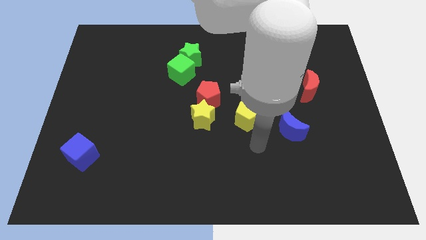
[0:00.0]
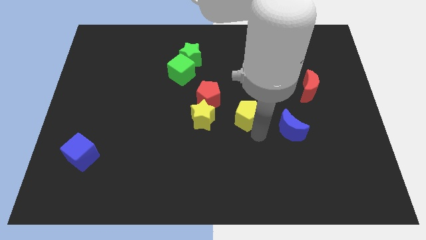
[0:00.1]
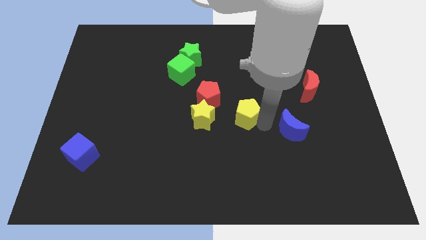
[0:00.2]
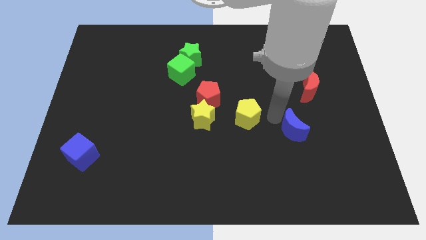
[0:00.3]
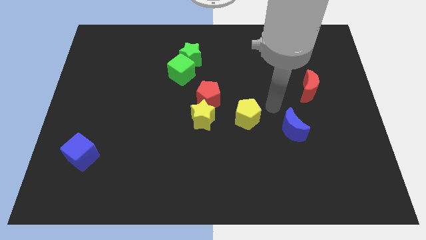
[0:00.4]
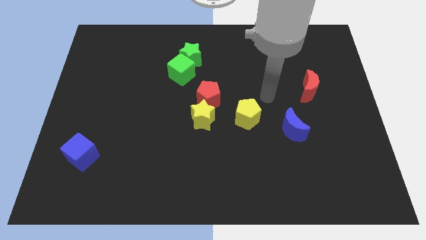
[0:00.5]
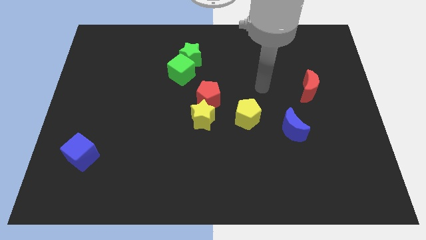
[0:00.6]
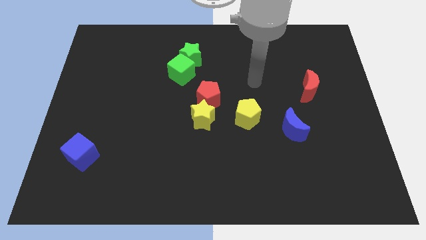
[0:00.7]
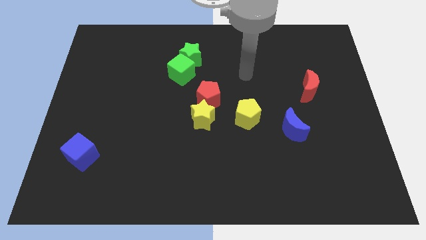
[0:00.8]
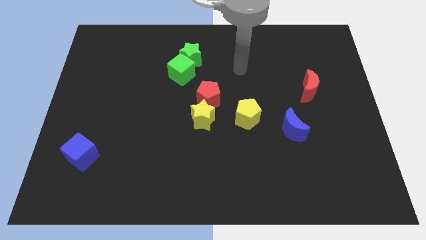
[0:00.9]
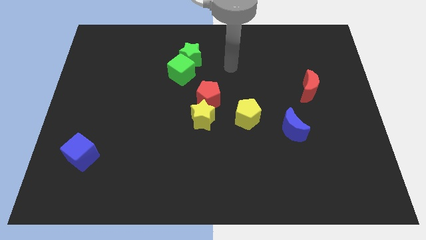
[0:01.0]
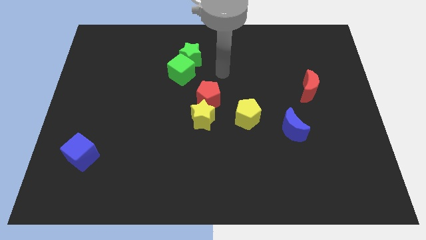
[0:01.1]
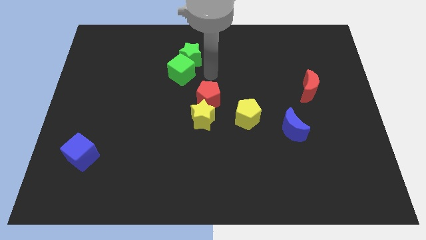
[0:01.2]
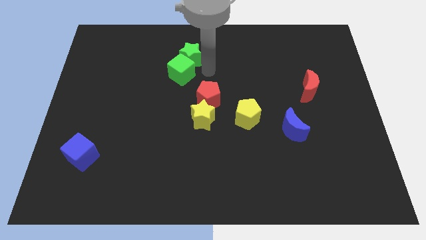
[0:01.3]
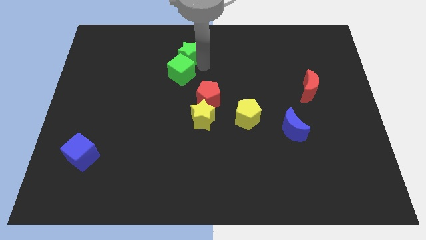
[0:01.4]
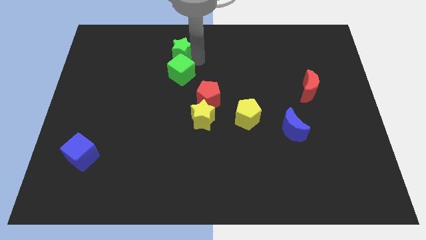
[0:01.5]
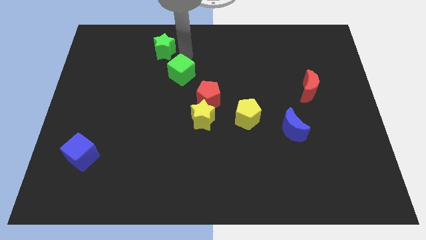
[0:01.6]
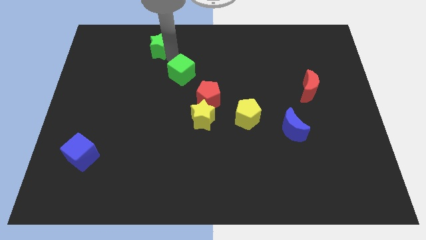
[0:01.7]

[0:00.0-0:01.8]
pull the green cube apart from the green star

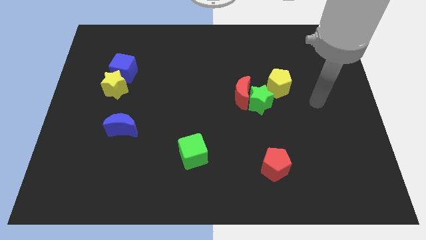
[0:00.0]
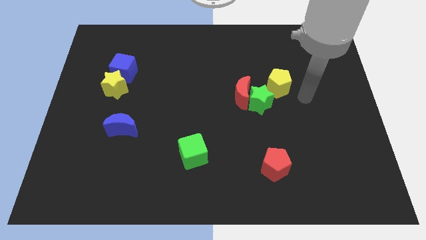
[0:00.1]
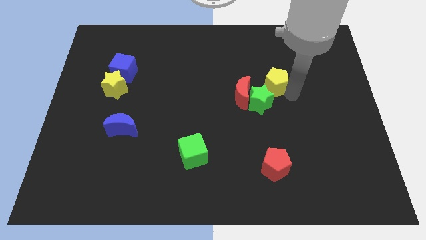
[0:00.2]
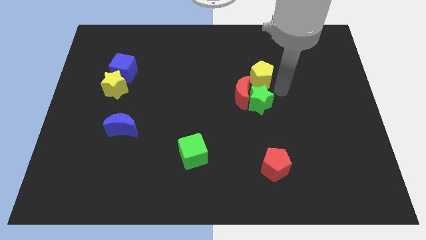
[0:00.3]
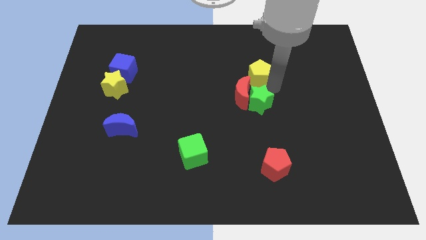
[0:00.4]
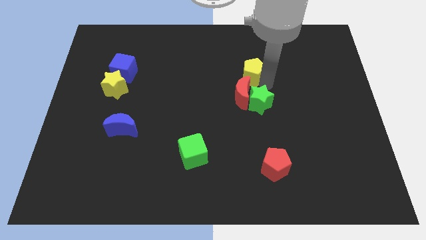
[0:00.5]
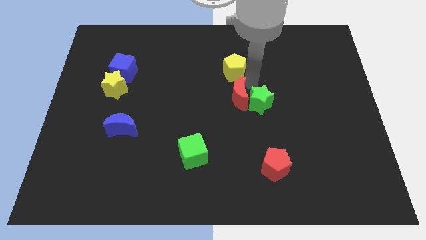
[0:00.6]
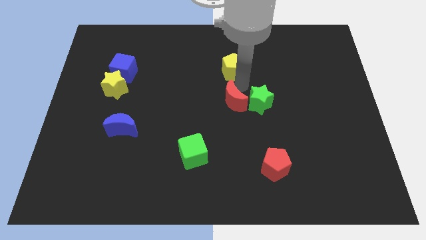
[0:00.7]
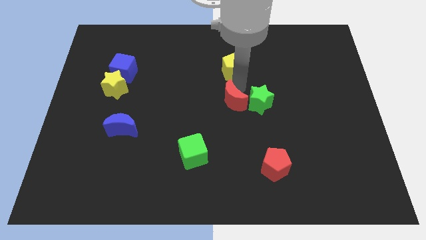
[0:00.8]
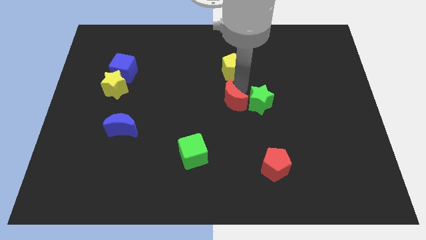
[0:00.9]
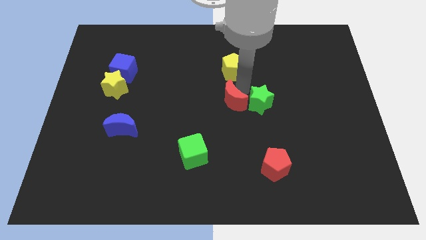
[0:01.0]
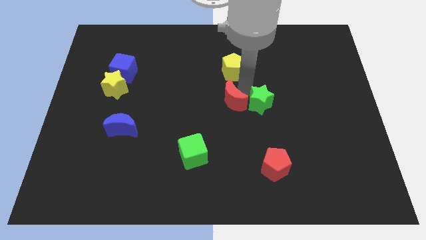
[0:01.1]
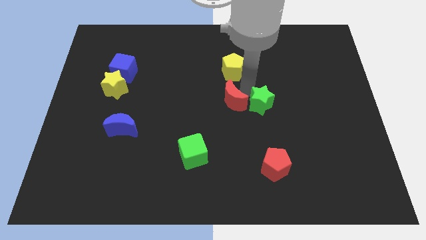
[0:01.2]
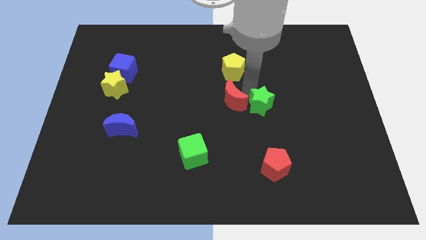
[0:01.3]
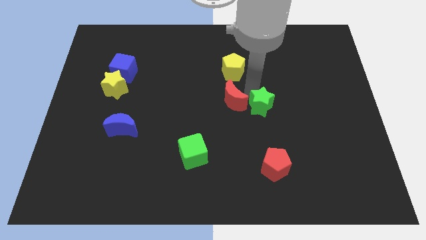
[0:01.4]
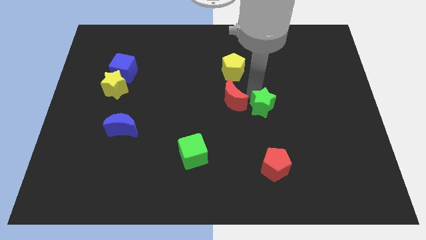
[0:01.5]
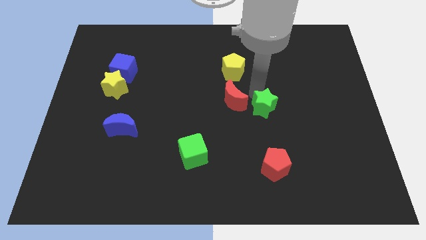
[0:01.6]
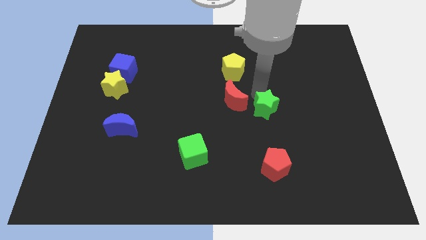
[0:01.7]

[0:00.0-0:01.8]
separate the green star from the red moon and yellow pentagon

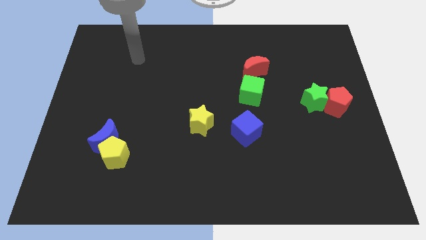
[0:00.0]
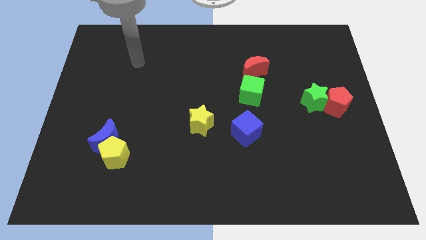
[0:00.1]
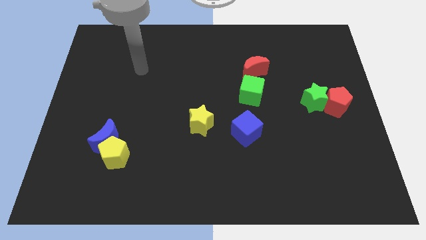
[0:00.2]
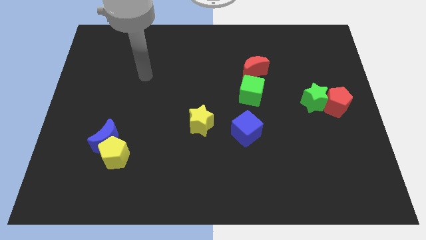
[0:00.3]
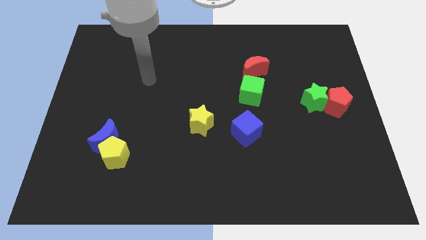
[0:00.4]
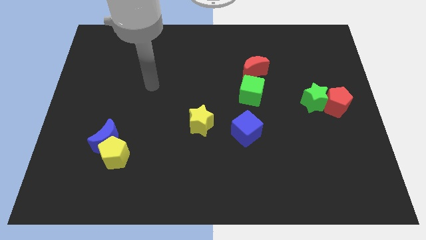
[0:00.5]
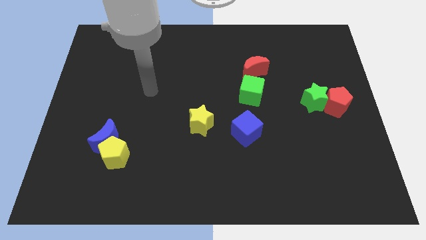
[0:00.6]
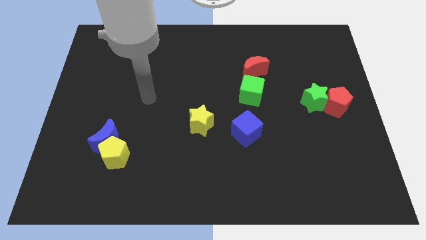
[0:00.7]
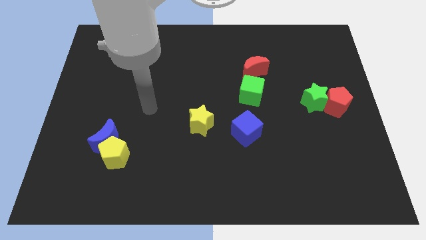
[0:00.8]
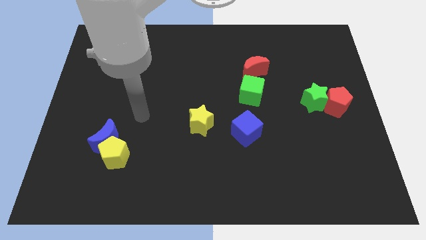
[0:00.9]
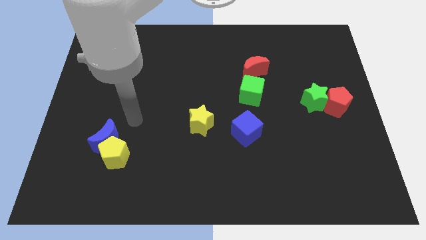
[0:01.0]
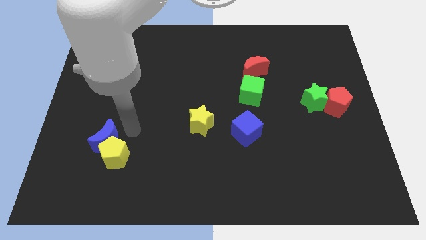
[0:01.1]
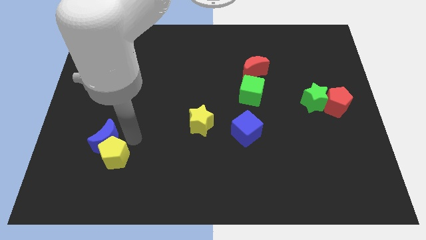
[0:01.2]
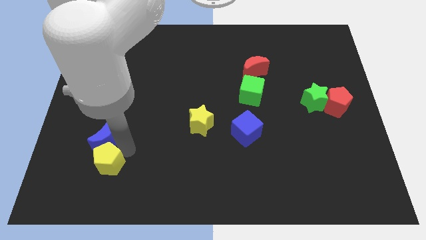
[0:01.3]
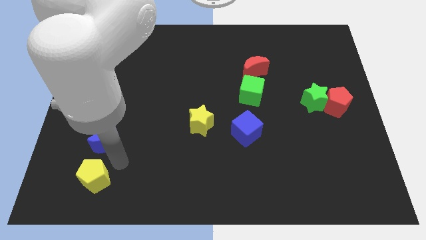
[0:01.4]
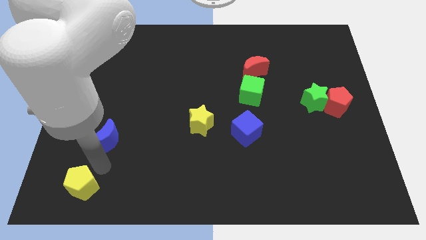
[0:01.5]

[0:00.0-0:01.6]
move the blue moon away from the yellow pentagon

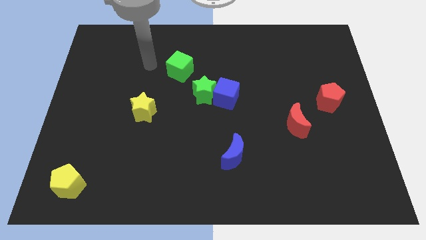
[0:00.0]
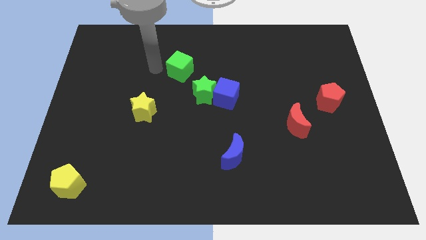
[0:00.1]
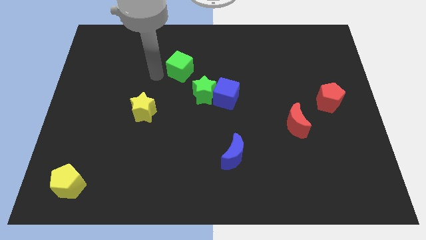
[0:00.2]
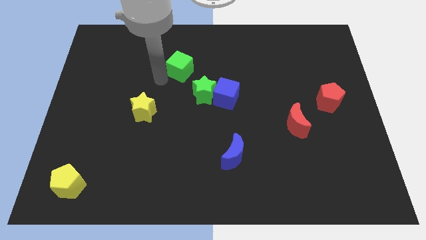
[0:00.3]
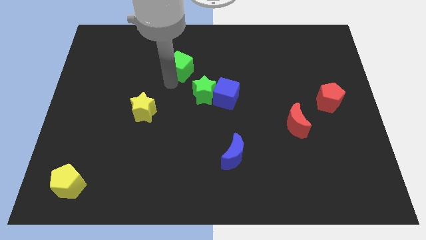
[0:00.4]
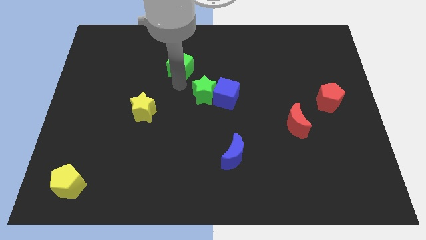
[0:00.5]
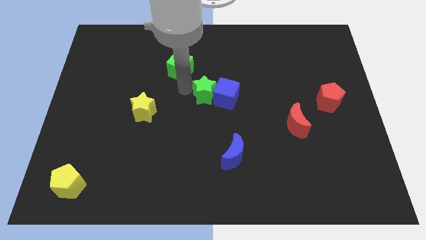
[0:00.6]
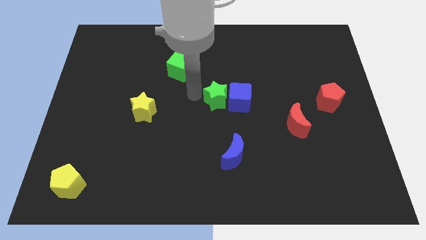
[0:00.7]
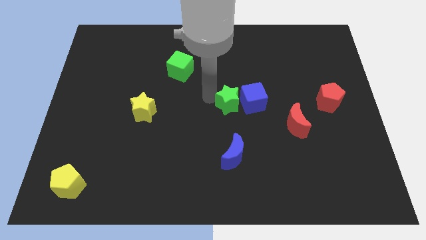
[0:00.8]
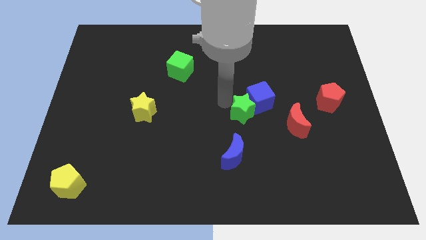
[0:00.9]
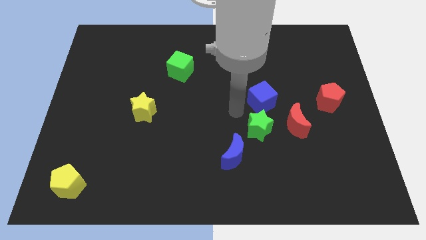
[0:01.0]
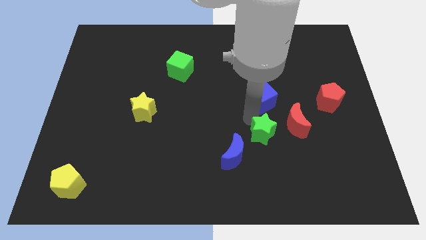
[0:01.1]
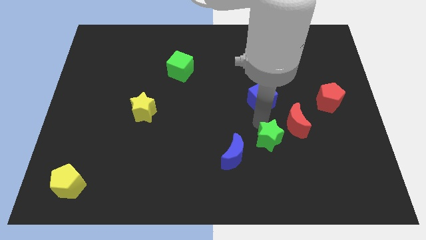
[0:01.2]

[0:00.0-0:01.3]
move the blue cube away from the green star

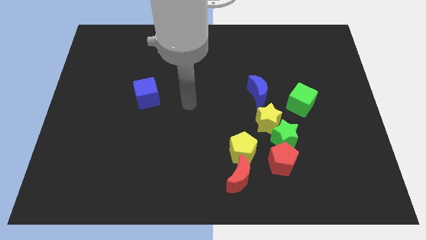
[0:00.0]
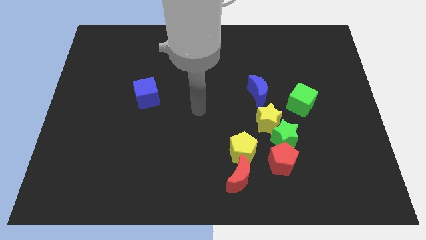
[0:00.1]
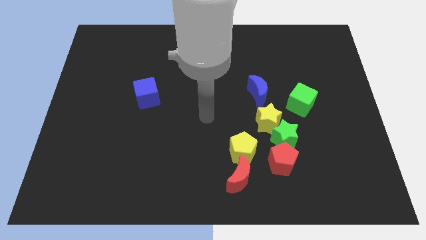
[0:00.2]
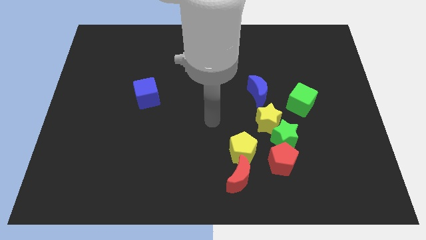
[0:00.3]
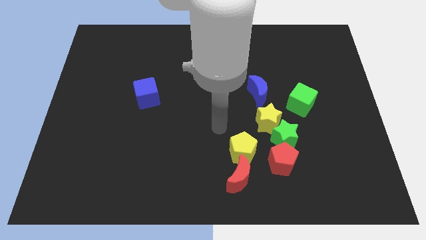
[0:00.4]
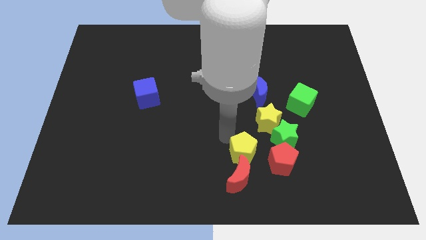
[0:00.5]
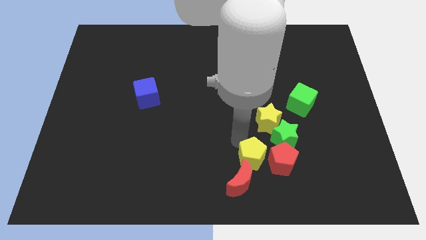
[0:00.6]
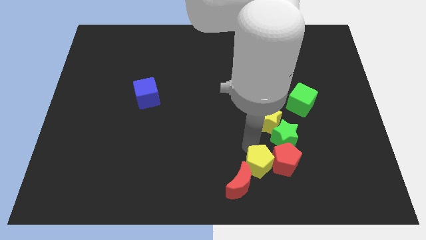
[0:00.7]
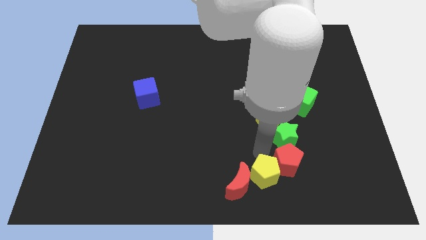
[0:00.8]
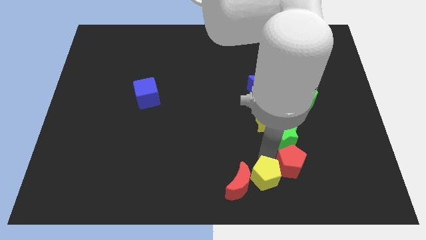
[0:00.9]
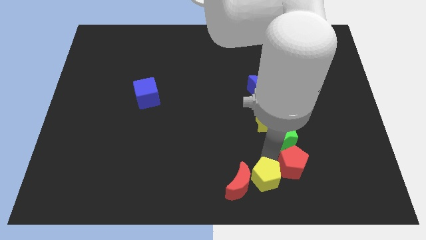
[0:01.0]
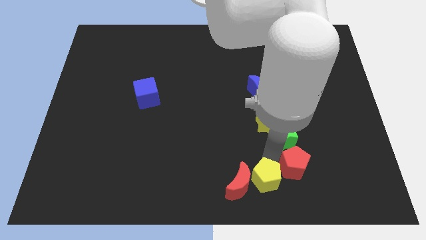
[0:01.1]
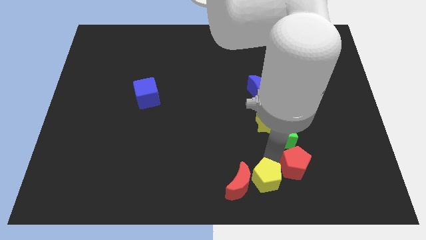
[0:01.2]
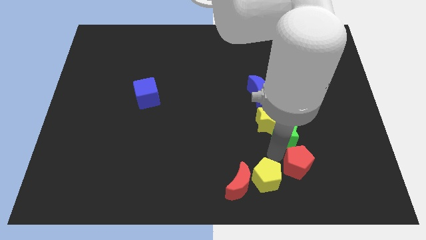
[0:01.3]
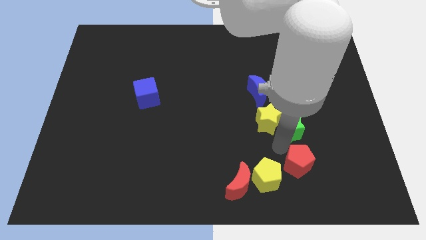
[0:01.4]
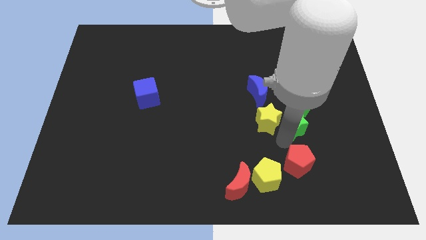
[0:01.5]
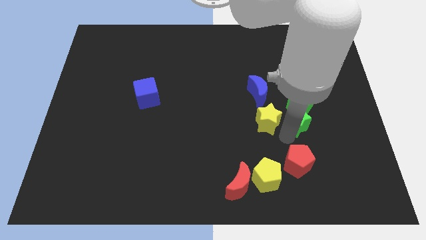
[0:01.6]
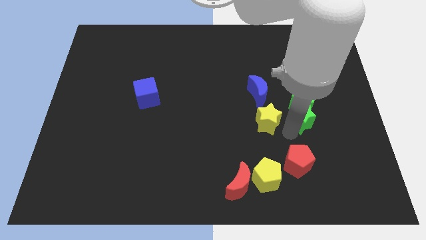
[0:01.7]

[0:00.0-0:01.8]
move the green star away from the clump

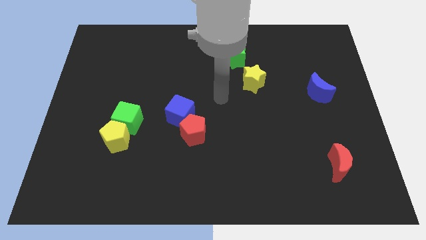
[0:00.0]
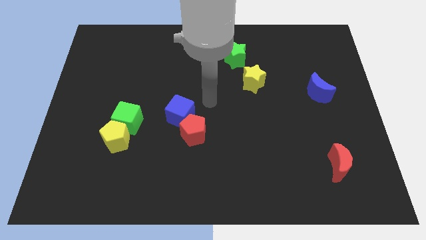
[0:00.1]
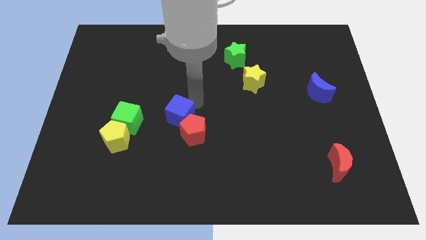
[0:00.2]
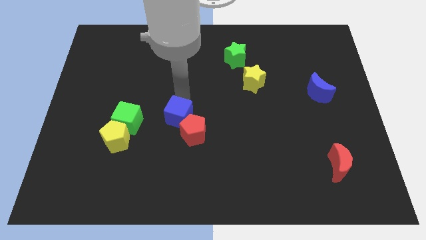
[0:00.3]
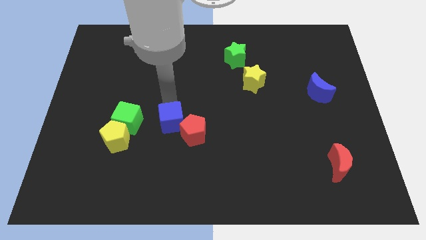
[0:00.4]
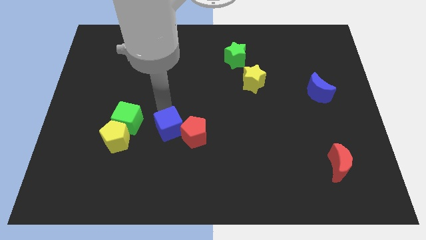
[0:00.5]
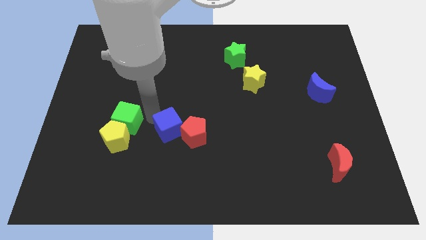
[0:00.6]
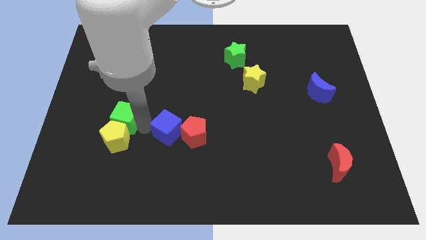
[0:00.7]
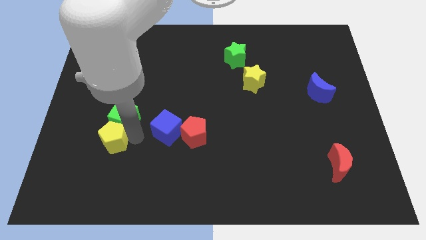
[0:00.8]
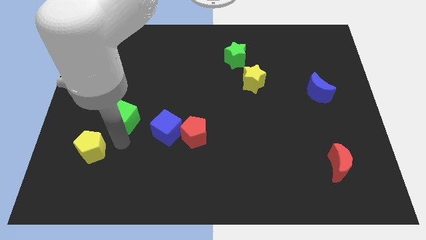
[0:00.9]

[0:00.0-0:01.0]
move the green cube away from the yellow pentagon
